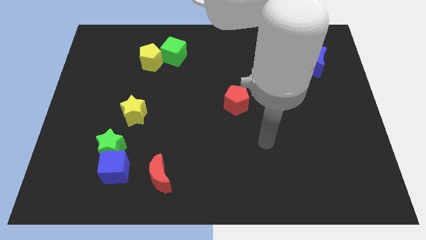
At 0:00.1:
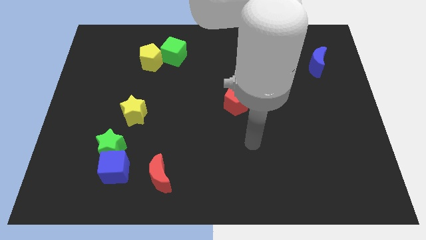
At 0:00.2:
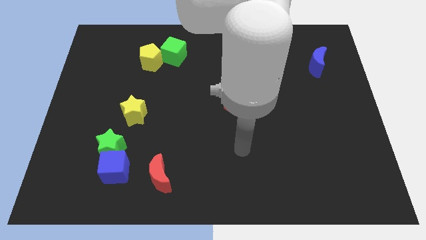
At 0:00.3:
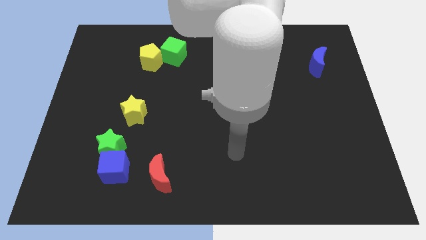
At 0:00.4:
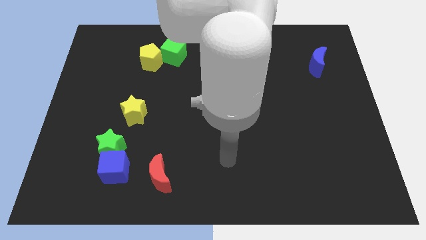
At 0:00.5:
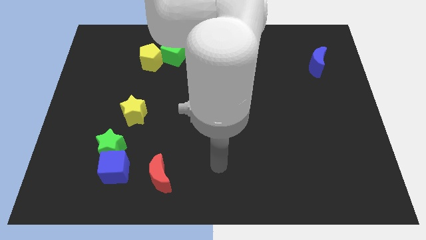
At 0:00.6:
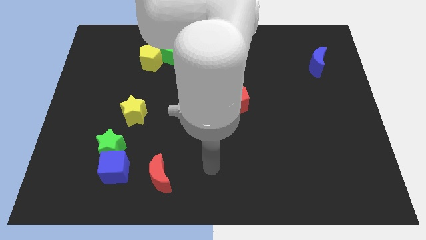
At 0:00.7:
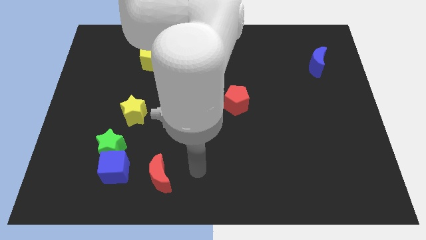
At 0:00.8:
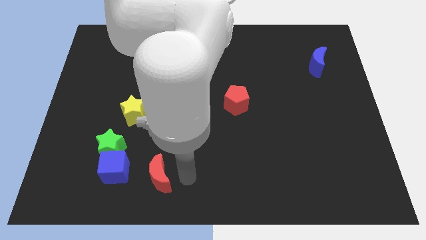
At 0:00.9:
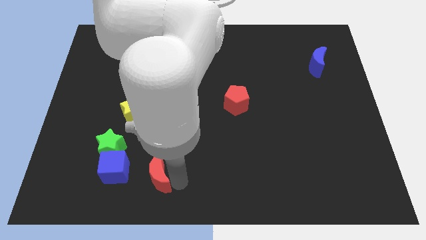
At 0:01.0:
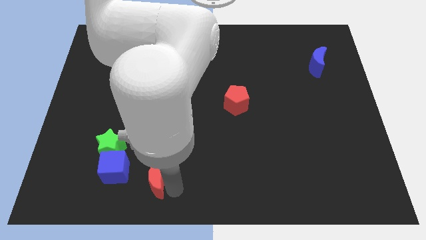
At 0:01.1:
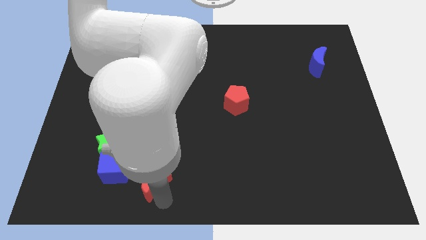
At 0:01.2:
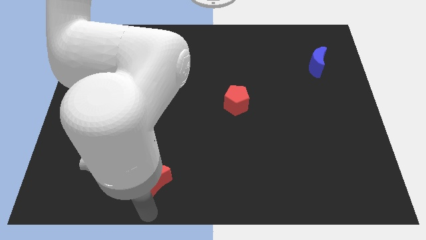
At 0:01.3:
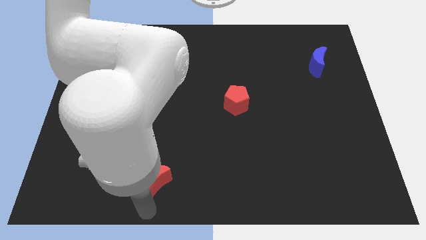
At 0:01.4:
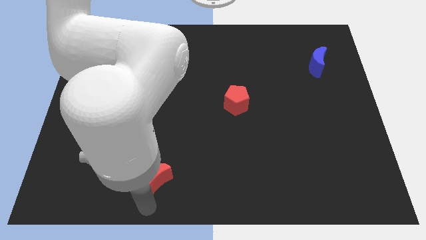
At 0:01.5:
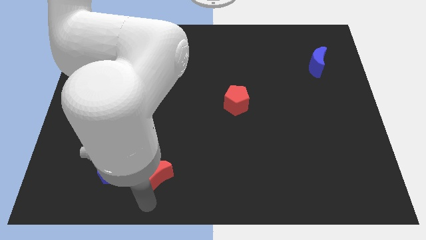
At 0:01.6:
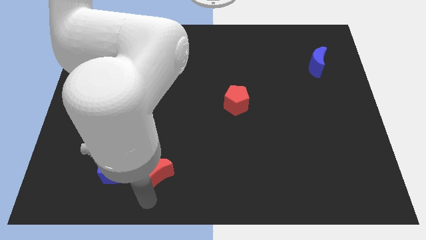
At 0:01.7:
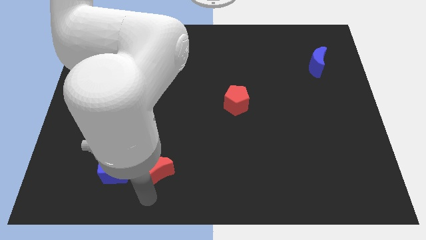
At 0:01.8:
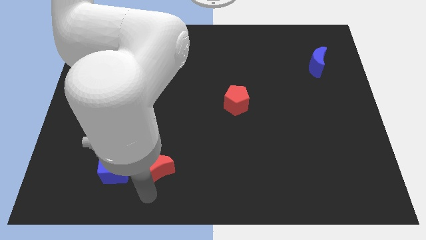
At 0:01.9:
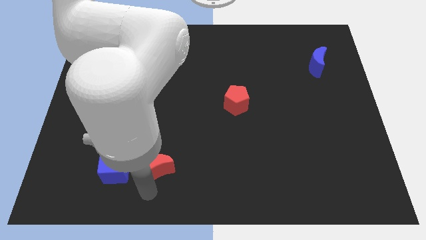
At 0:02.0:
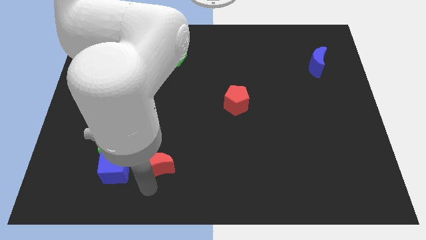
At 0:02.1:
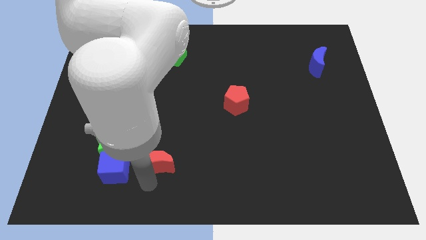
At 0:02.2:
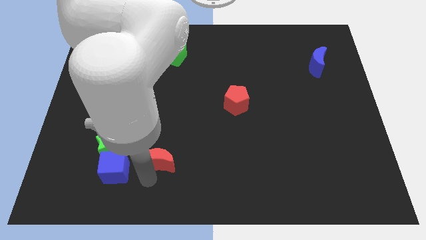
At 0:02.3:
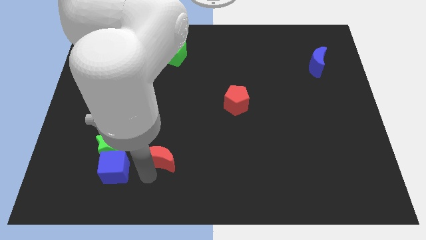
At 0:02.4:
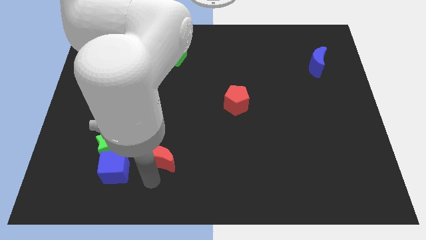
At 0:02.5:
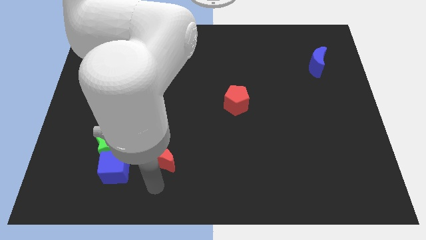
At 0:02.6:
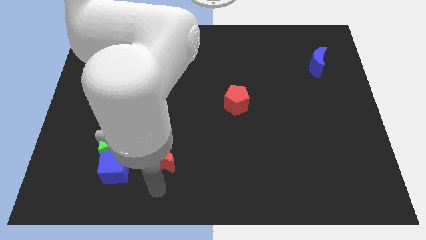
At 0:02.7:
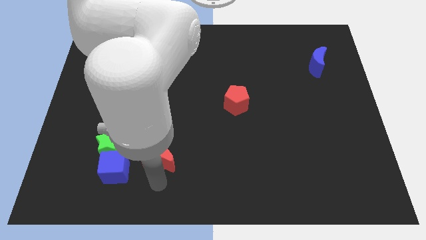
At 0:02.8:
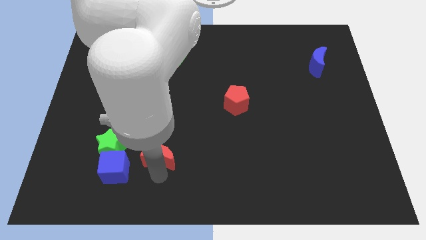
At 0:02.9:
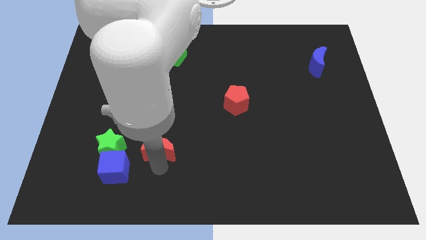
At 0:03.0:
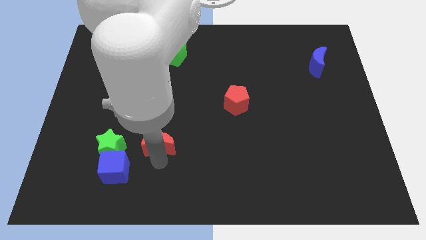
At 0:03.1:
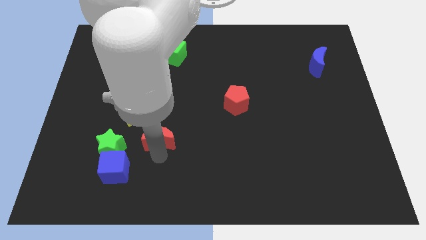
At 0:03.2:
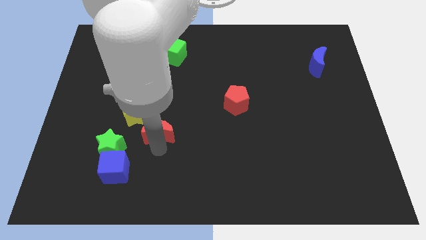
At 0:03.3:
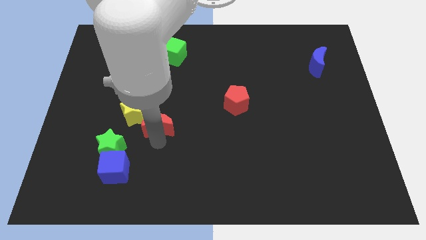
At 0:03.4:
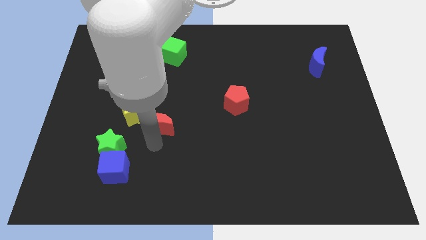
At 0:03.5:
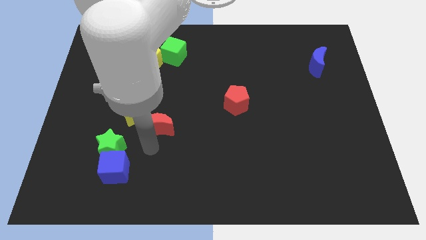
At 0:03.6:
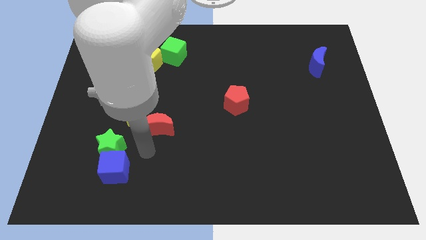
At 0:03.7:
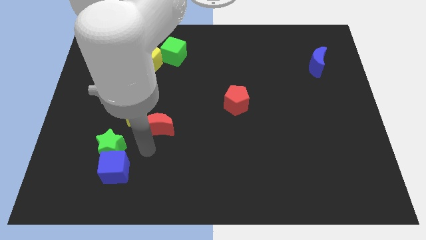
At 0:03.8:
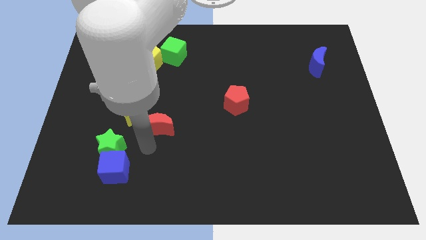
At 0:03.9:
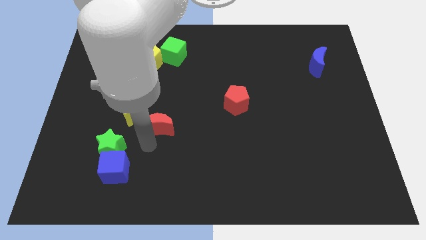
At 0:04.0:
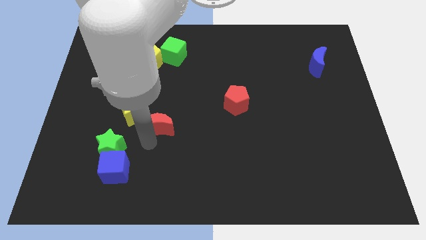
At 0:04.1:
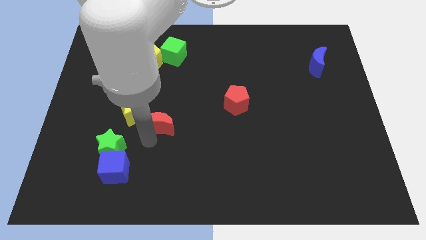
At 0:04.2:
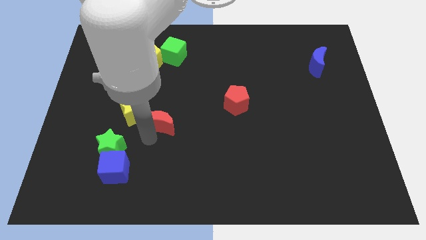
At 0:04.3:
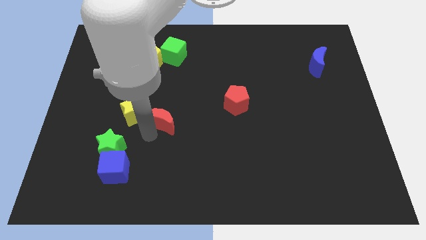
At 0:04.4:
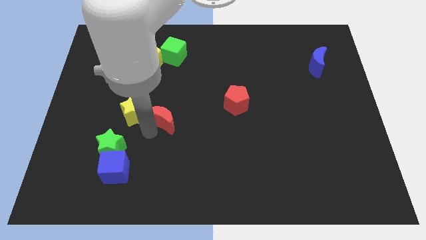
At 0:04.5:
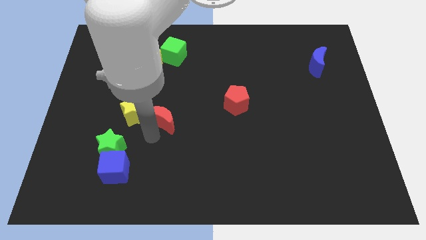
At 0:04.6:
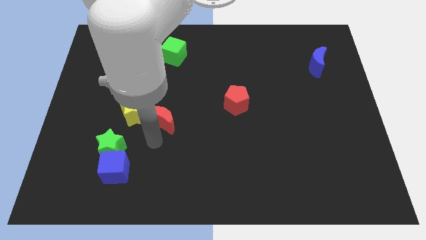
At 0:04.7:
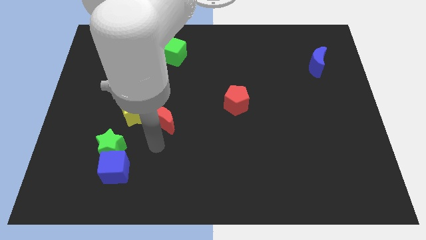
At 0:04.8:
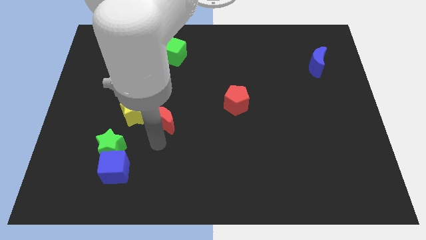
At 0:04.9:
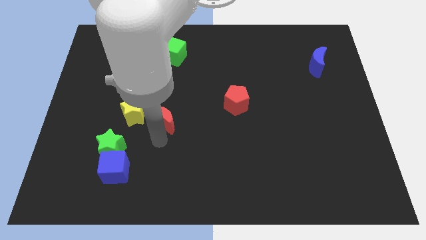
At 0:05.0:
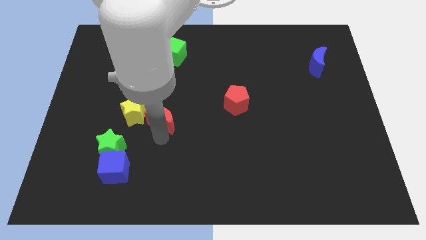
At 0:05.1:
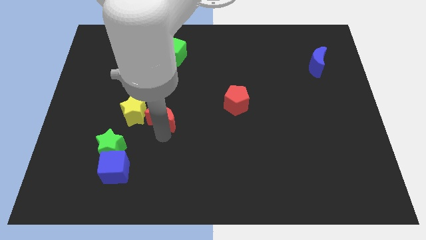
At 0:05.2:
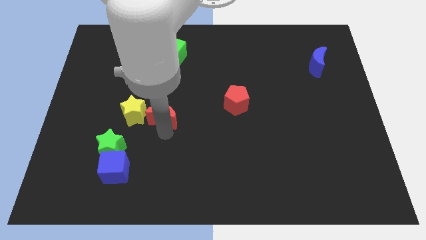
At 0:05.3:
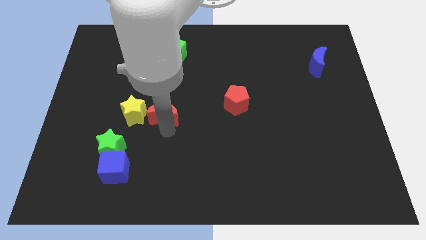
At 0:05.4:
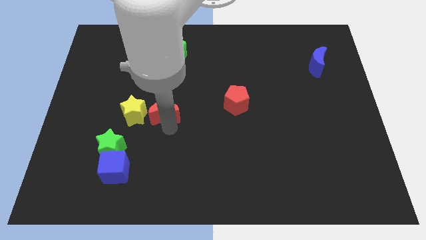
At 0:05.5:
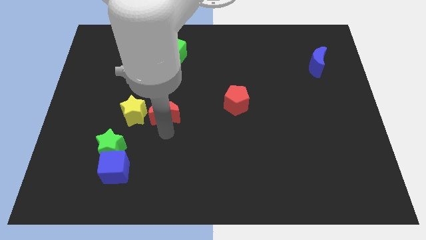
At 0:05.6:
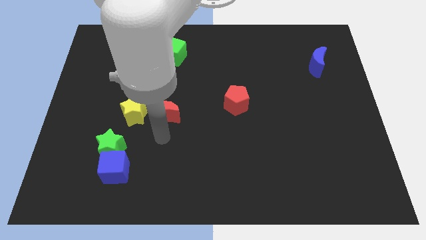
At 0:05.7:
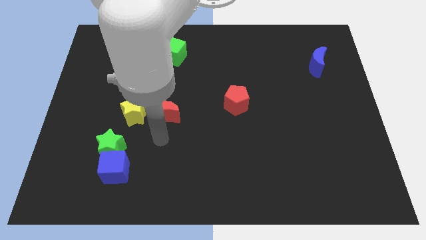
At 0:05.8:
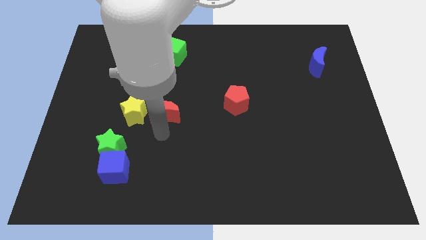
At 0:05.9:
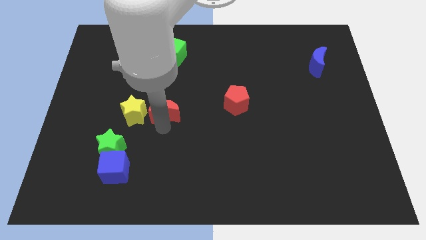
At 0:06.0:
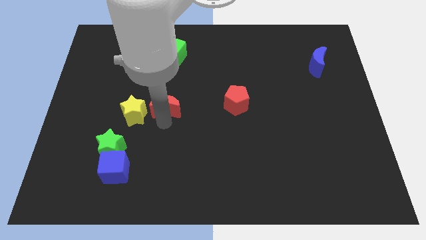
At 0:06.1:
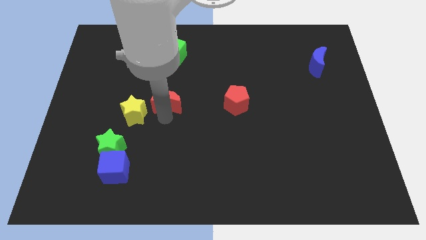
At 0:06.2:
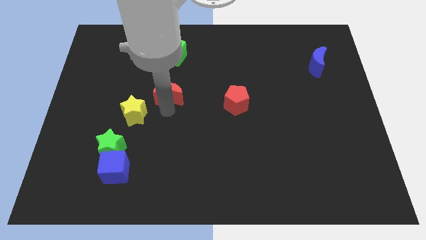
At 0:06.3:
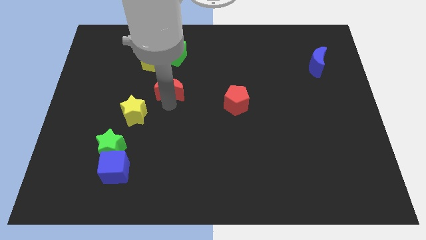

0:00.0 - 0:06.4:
slide the red moon to the bottom right of the yellow pentagon
